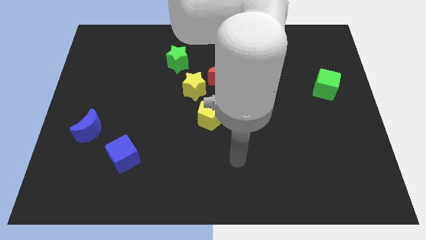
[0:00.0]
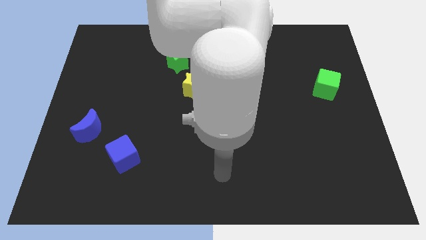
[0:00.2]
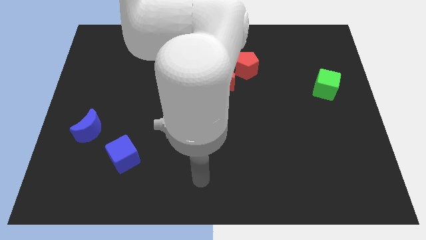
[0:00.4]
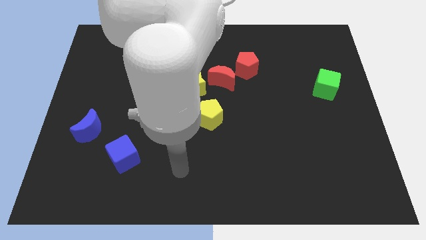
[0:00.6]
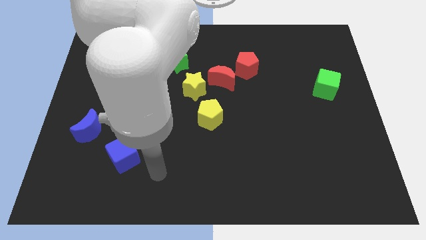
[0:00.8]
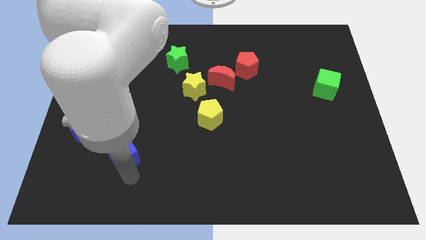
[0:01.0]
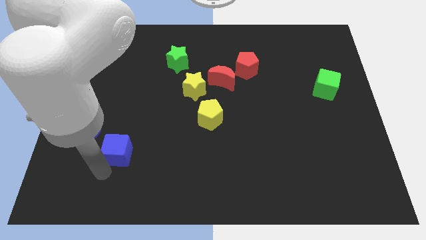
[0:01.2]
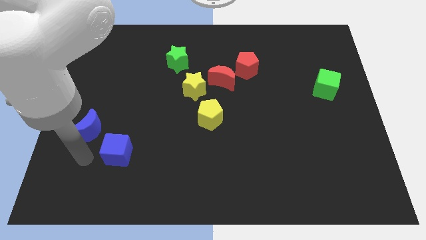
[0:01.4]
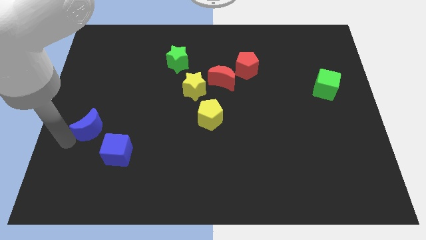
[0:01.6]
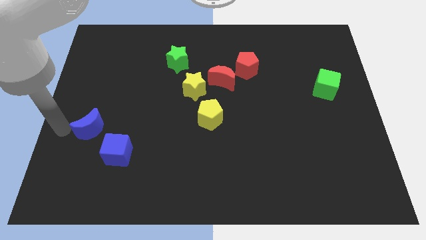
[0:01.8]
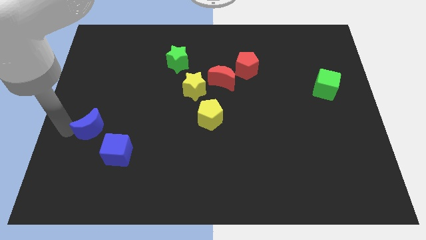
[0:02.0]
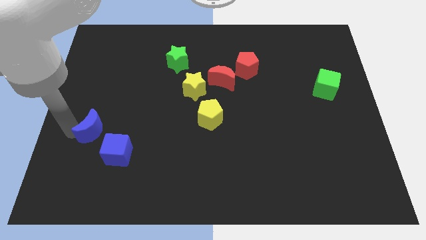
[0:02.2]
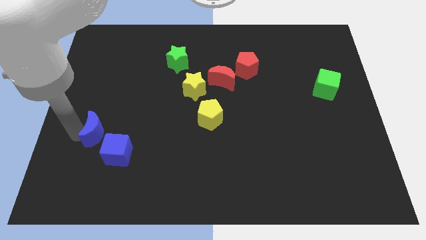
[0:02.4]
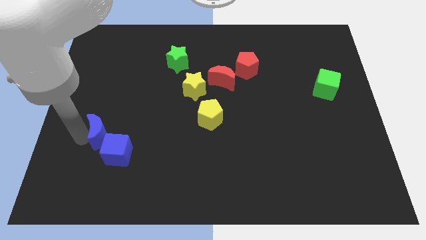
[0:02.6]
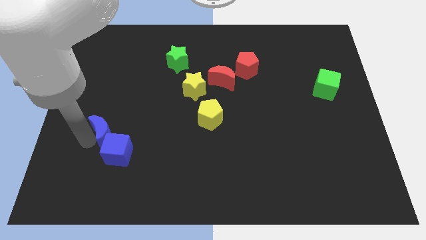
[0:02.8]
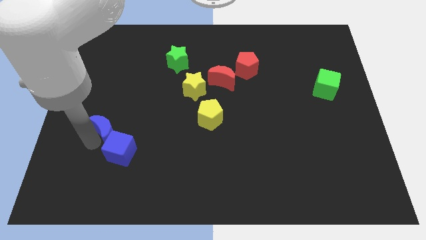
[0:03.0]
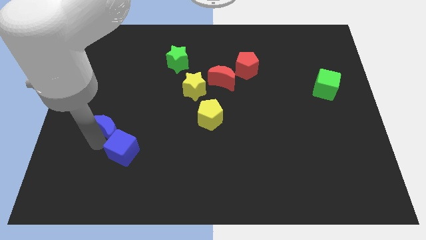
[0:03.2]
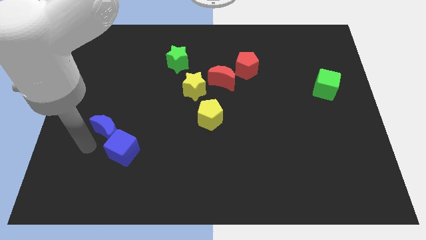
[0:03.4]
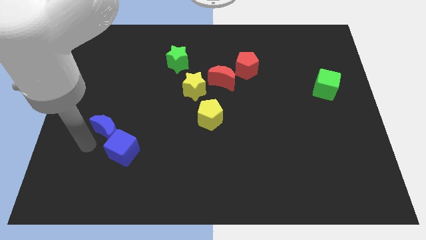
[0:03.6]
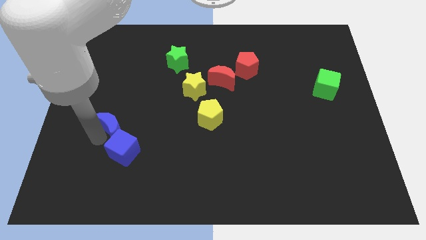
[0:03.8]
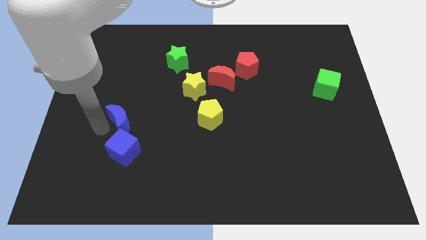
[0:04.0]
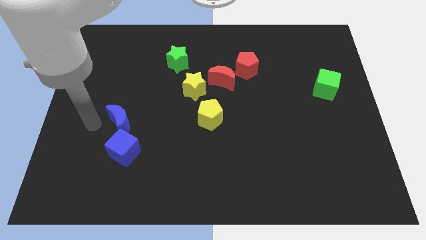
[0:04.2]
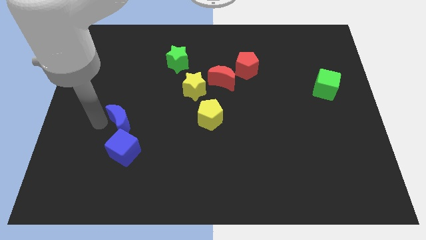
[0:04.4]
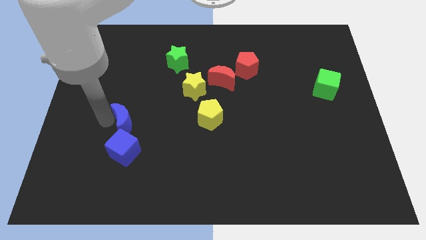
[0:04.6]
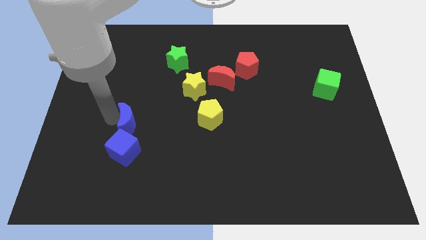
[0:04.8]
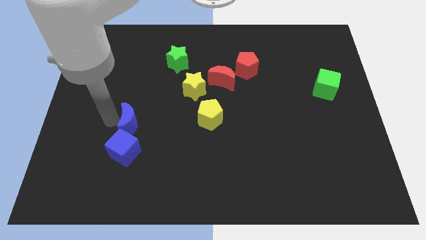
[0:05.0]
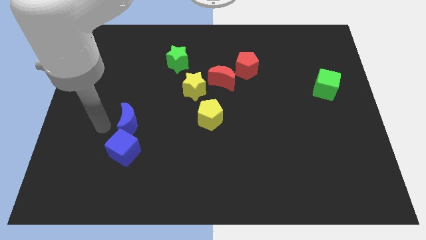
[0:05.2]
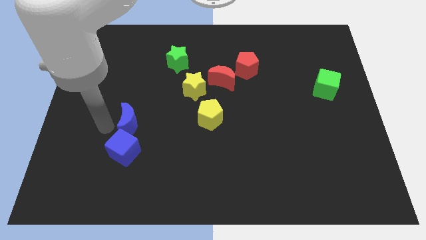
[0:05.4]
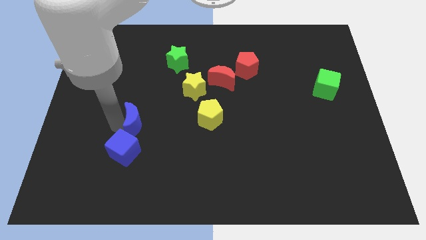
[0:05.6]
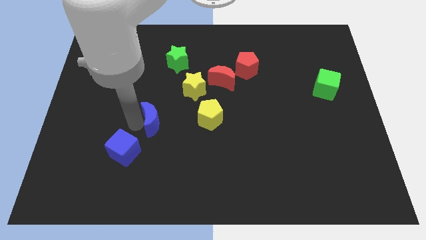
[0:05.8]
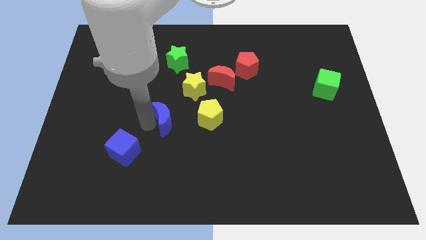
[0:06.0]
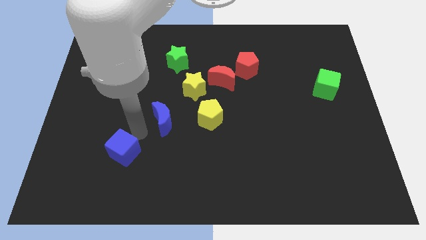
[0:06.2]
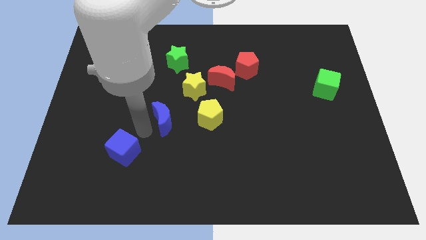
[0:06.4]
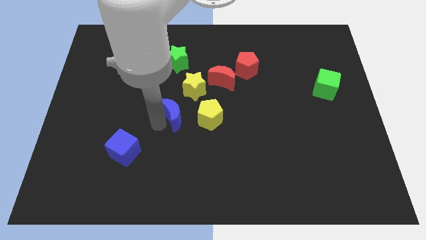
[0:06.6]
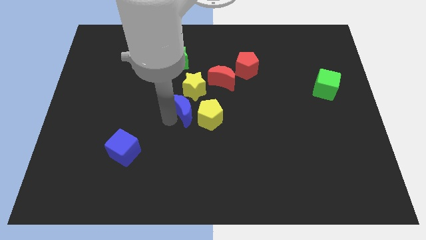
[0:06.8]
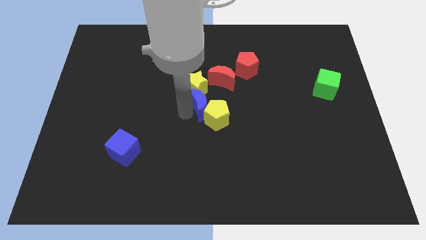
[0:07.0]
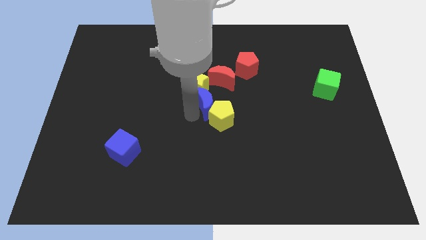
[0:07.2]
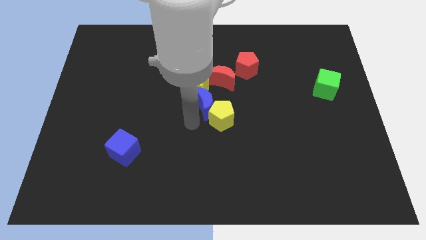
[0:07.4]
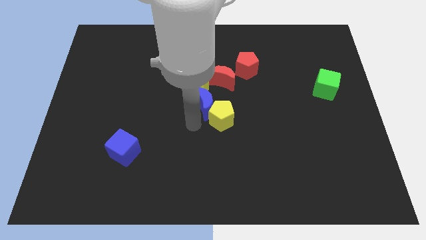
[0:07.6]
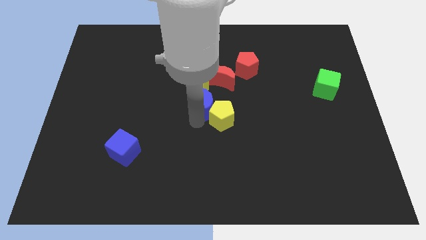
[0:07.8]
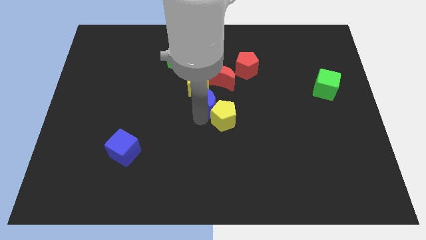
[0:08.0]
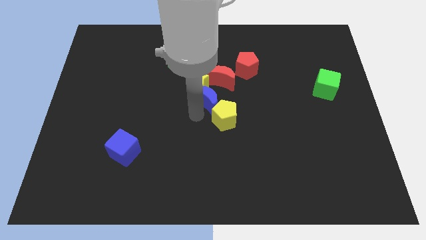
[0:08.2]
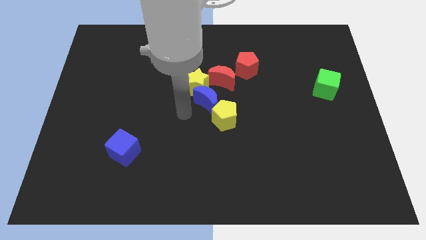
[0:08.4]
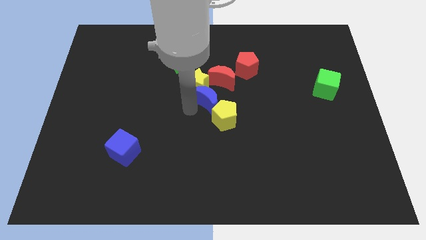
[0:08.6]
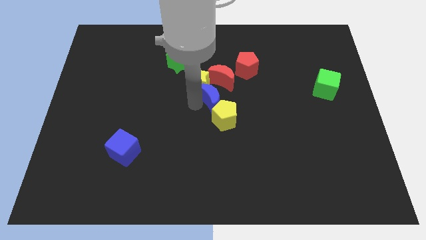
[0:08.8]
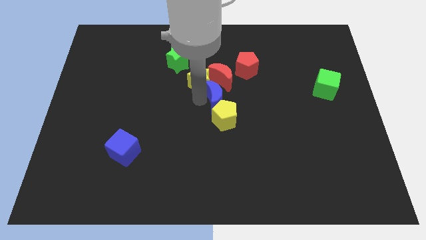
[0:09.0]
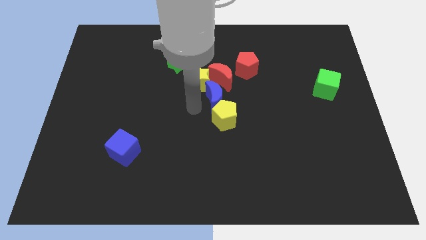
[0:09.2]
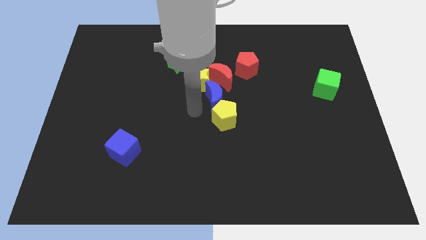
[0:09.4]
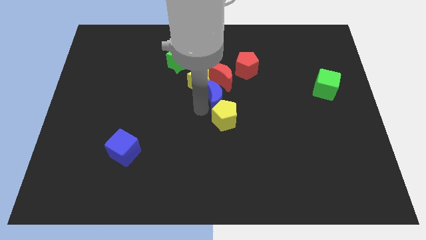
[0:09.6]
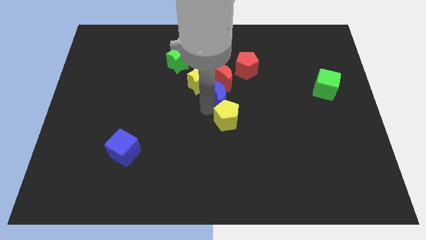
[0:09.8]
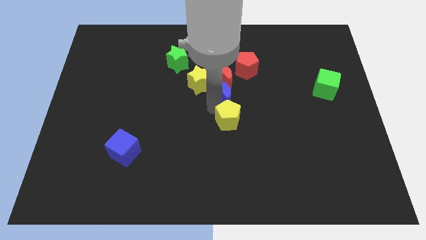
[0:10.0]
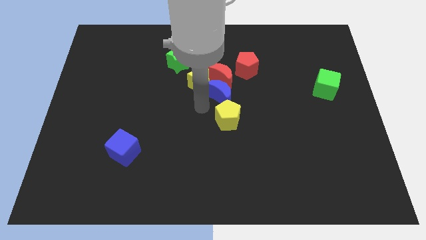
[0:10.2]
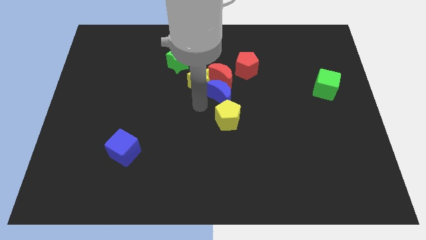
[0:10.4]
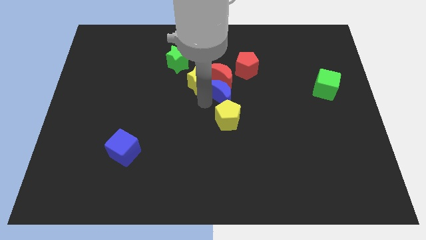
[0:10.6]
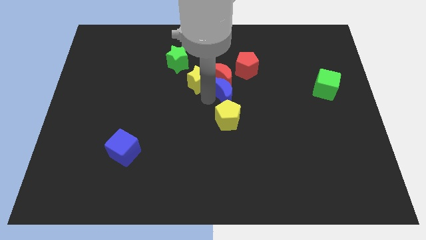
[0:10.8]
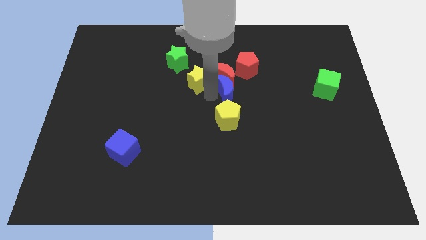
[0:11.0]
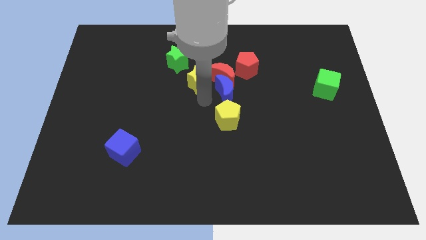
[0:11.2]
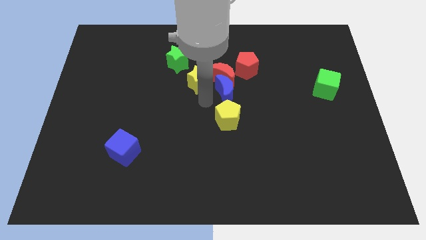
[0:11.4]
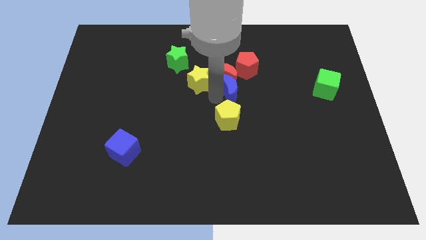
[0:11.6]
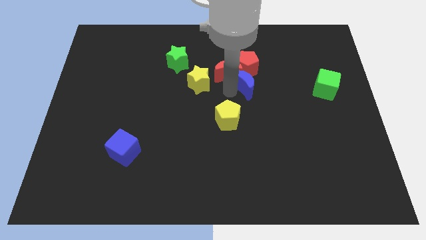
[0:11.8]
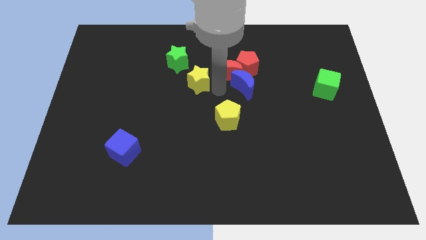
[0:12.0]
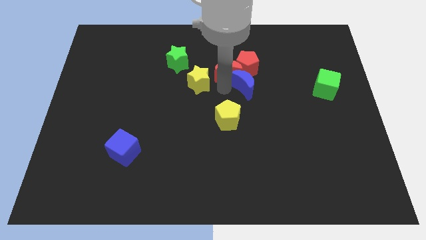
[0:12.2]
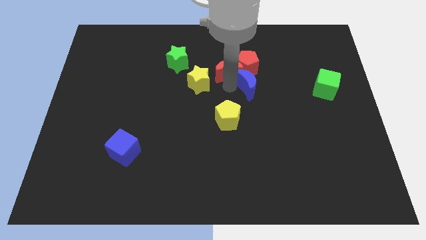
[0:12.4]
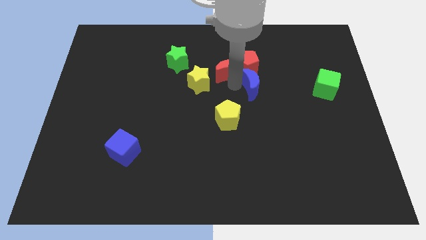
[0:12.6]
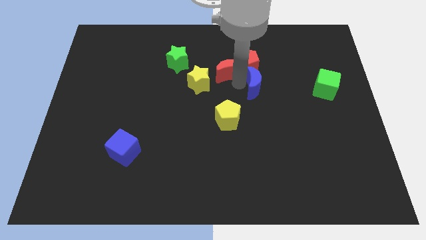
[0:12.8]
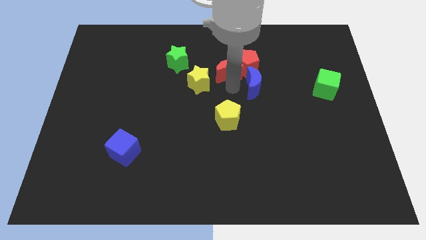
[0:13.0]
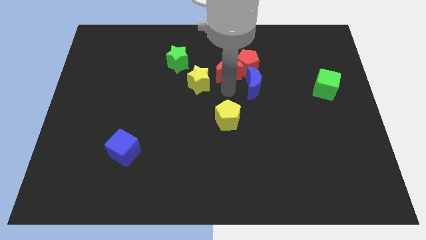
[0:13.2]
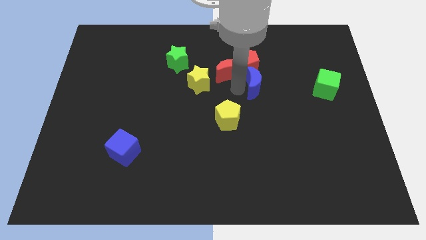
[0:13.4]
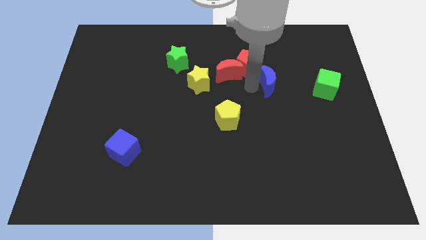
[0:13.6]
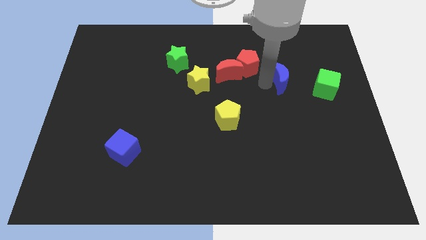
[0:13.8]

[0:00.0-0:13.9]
push the blue moon to the right side of the red pentagon

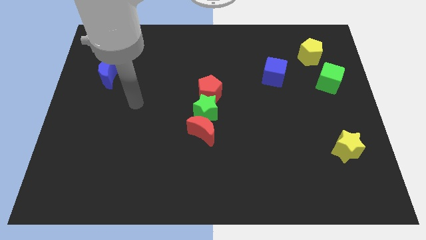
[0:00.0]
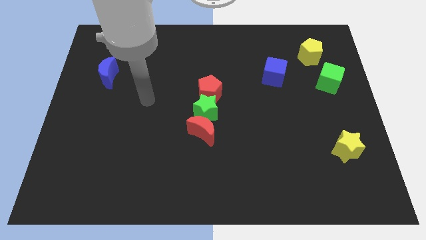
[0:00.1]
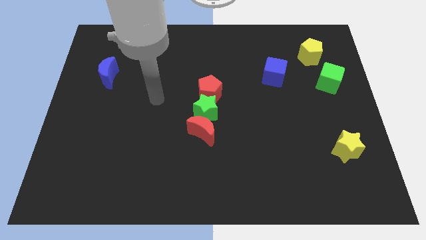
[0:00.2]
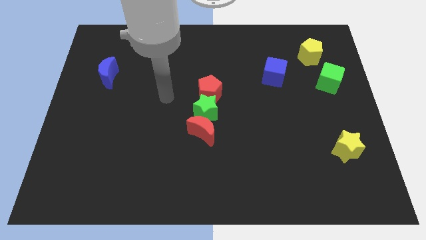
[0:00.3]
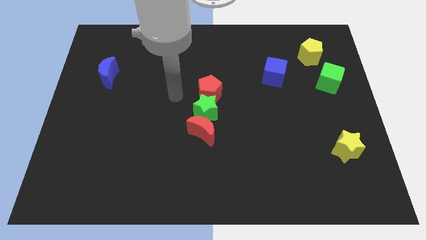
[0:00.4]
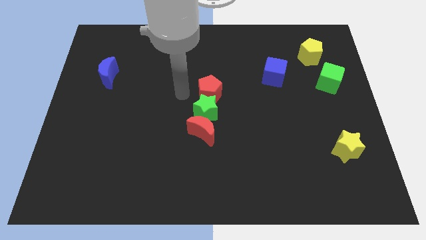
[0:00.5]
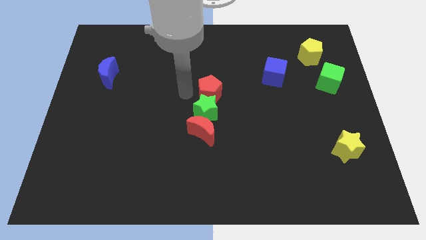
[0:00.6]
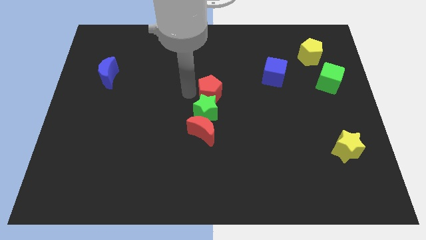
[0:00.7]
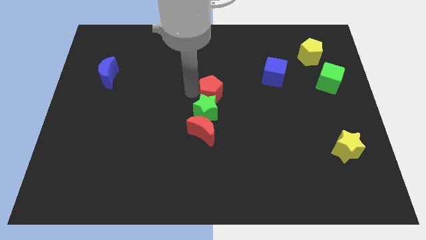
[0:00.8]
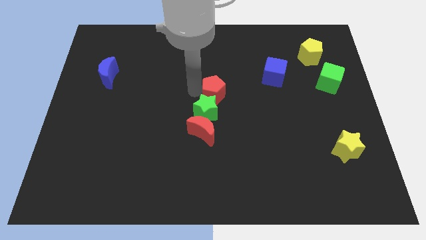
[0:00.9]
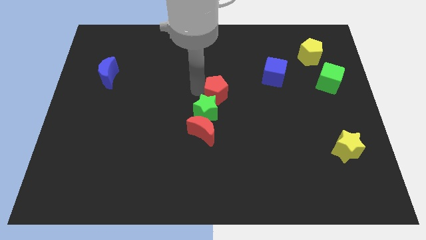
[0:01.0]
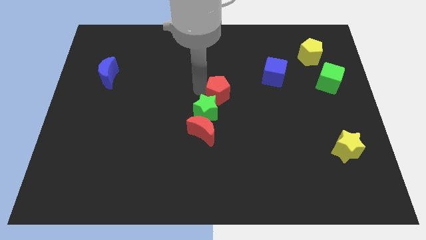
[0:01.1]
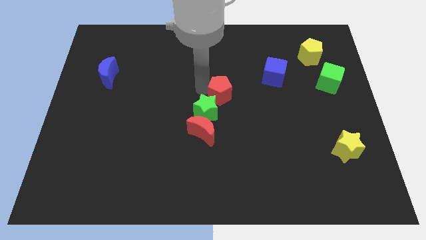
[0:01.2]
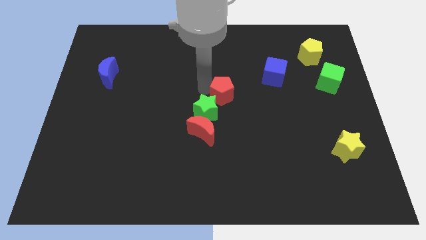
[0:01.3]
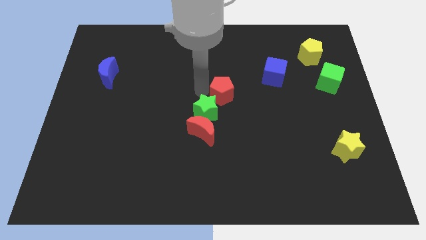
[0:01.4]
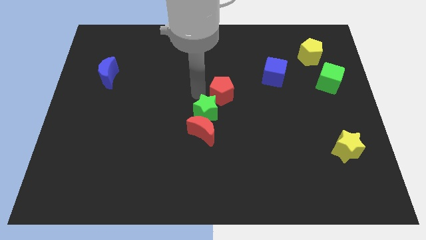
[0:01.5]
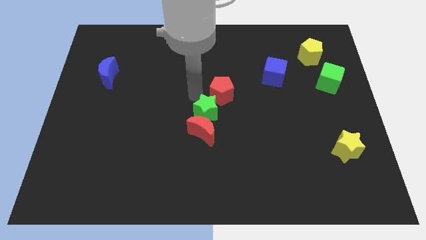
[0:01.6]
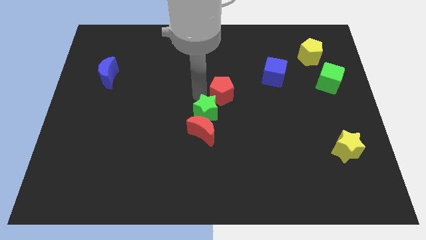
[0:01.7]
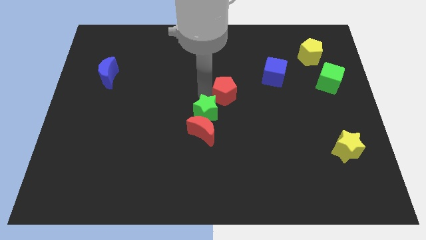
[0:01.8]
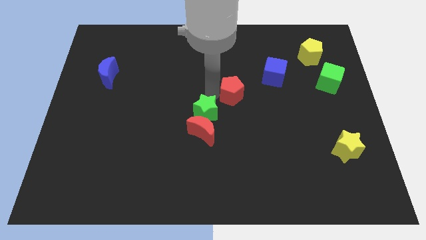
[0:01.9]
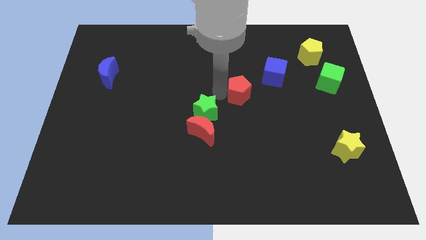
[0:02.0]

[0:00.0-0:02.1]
move the red pentagon to the bottom left of the blue cube
